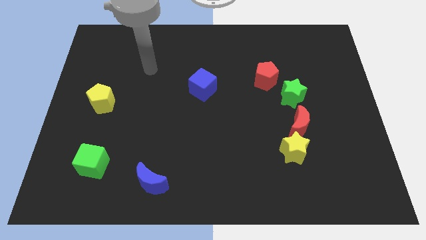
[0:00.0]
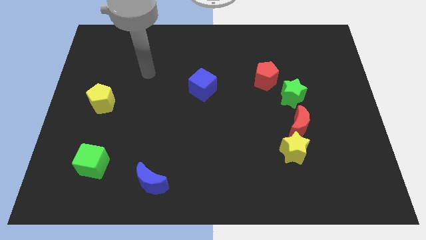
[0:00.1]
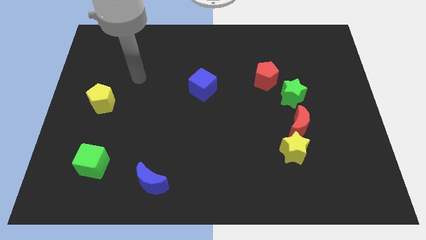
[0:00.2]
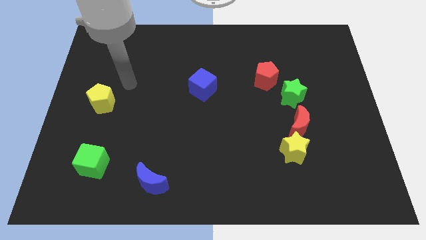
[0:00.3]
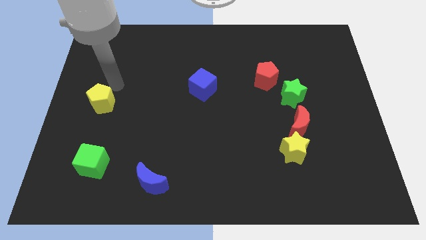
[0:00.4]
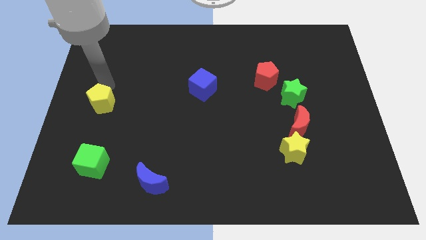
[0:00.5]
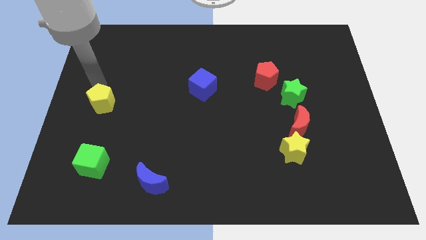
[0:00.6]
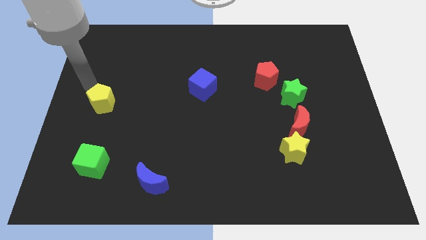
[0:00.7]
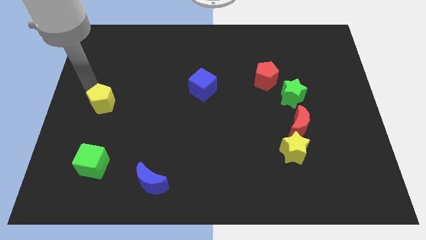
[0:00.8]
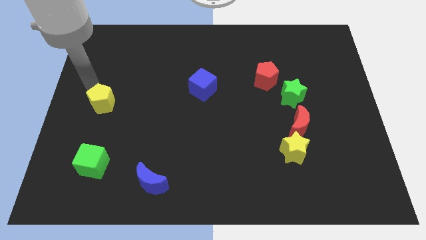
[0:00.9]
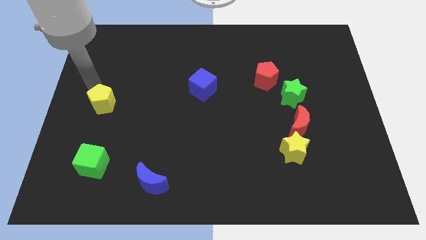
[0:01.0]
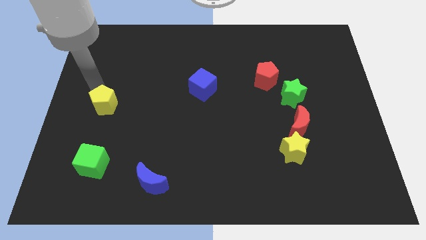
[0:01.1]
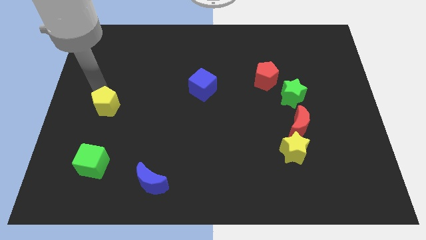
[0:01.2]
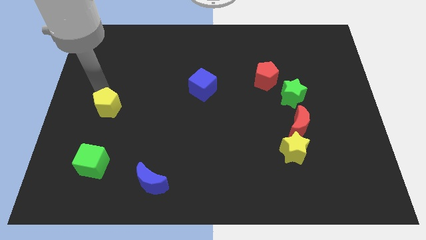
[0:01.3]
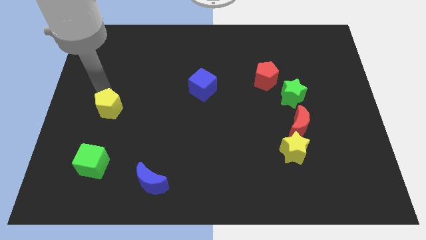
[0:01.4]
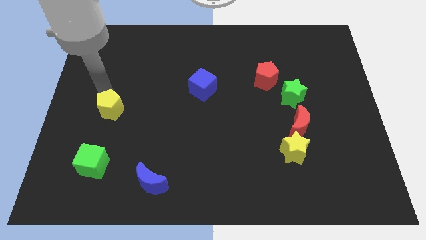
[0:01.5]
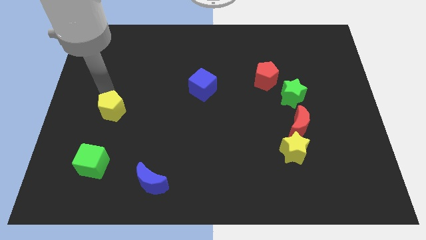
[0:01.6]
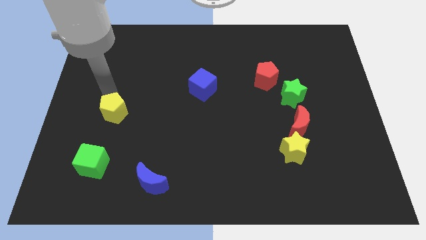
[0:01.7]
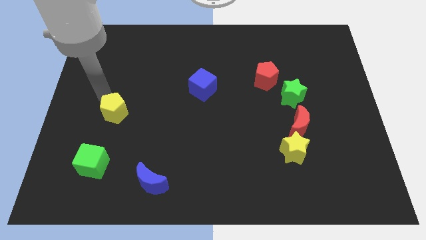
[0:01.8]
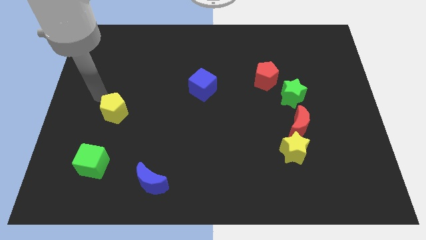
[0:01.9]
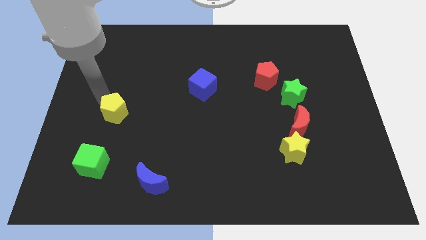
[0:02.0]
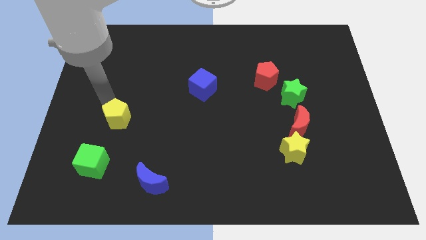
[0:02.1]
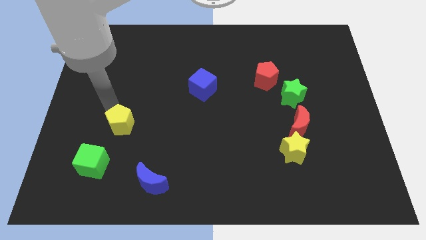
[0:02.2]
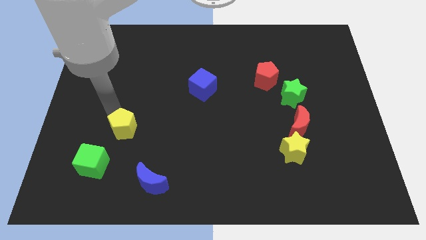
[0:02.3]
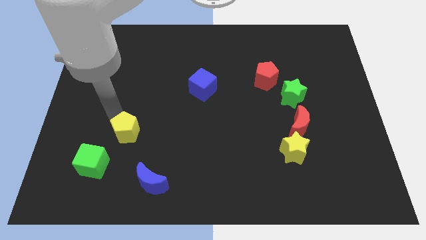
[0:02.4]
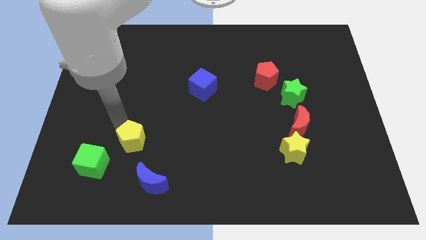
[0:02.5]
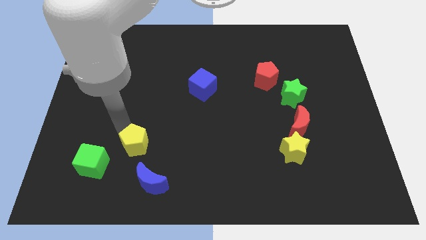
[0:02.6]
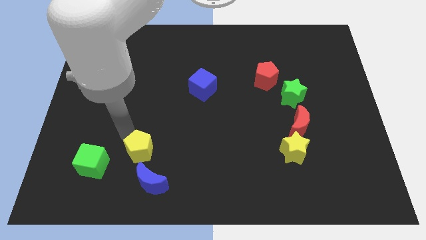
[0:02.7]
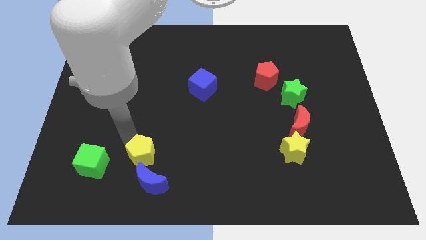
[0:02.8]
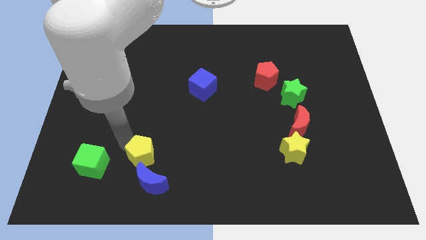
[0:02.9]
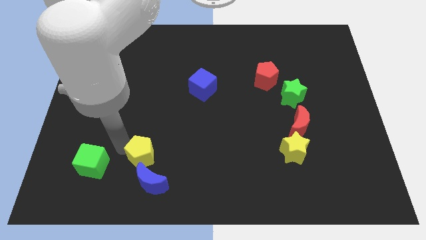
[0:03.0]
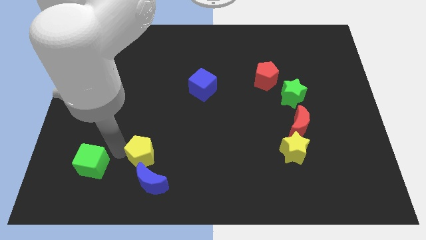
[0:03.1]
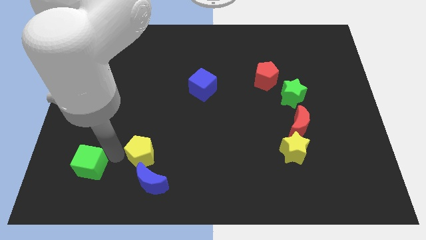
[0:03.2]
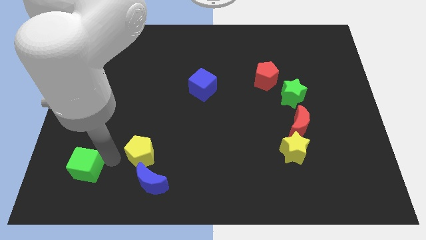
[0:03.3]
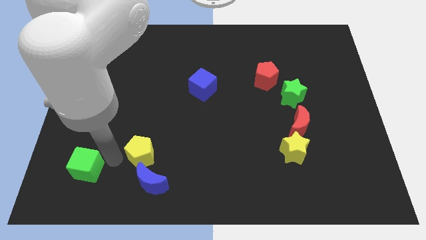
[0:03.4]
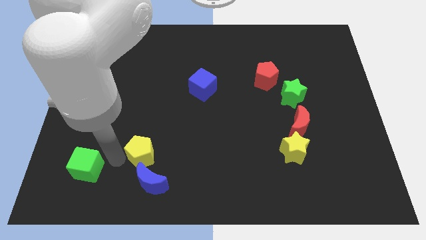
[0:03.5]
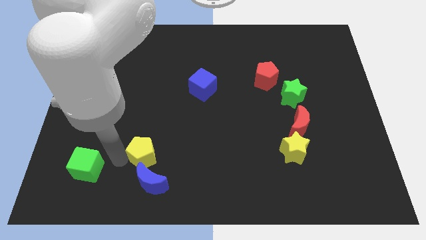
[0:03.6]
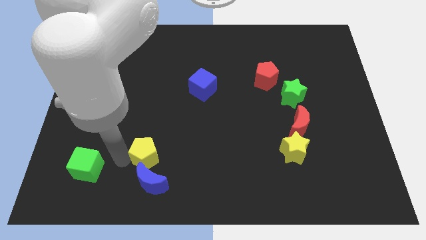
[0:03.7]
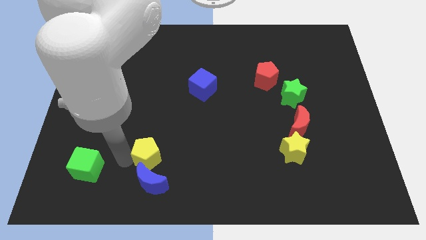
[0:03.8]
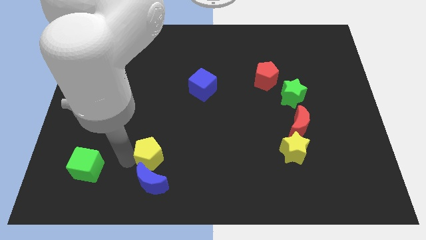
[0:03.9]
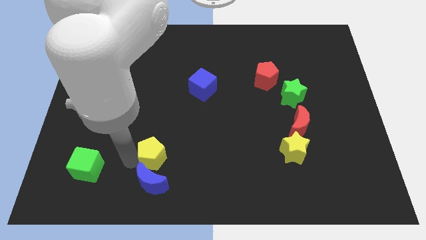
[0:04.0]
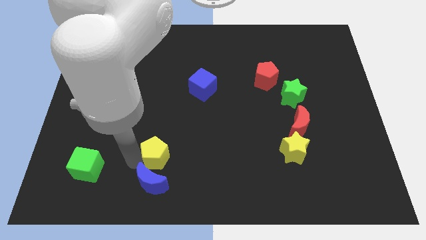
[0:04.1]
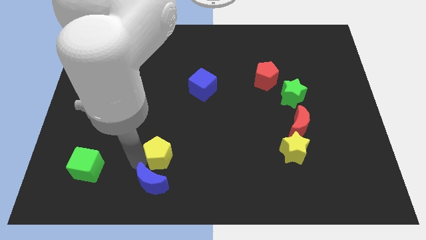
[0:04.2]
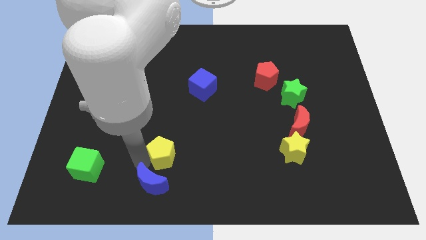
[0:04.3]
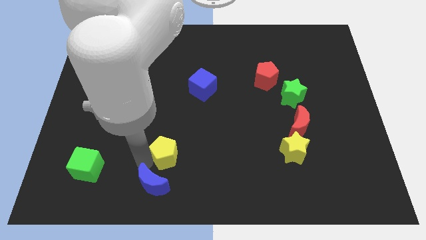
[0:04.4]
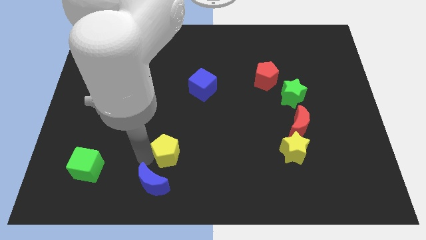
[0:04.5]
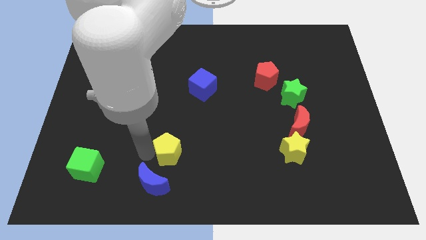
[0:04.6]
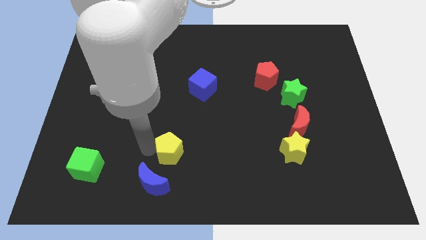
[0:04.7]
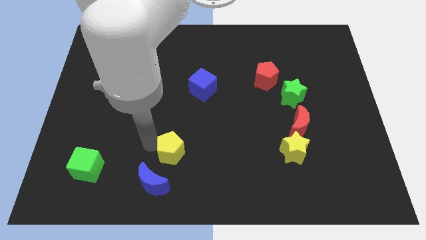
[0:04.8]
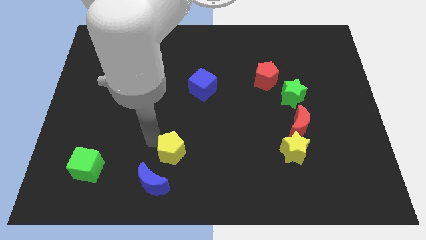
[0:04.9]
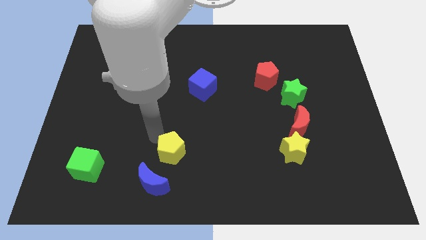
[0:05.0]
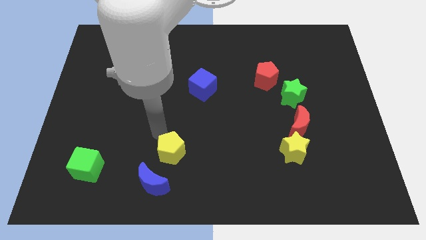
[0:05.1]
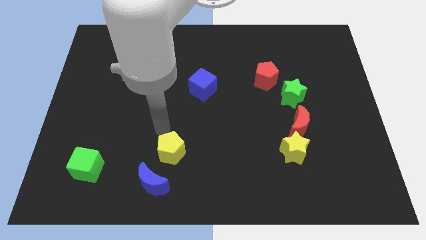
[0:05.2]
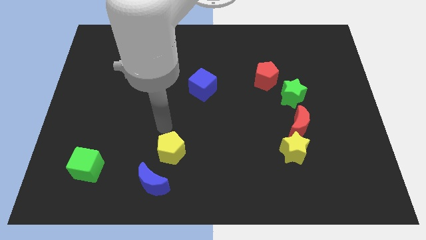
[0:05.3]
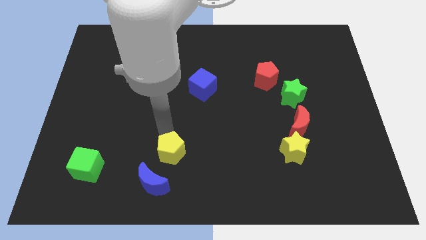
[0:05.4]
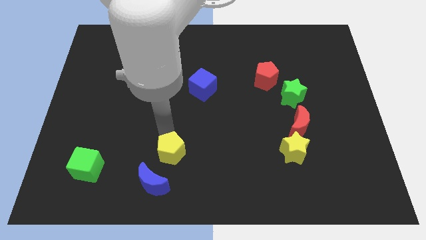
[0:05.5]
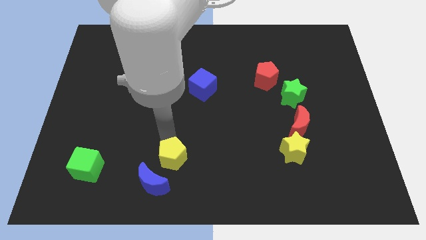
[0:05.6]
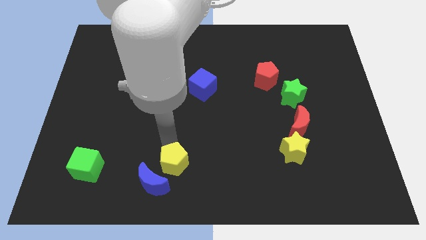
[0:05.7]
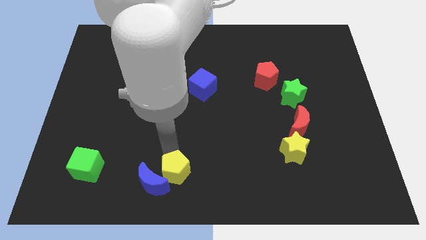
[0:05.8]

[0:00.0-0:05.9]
put the yellow pentagon to the bottom side

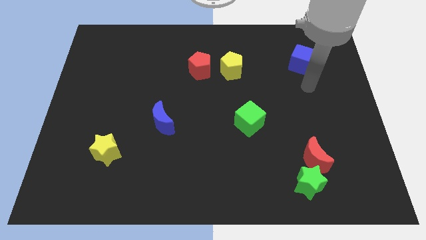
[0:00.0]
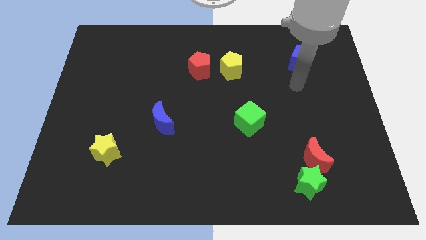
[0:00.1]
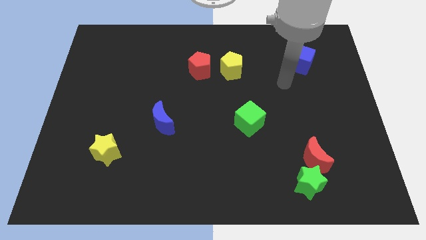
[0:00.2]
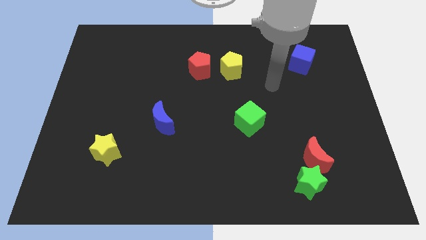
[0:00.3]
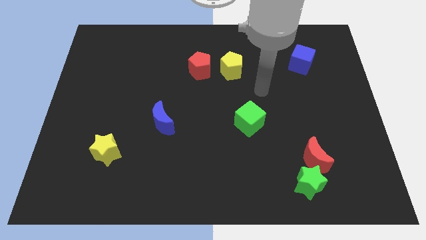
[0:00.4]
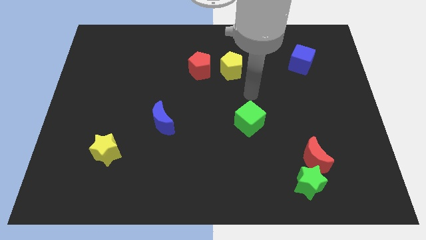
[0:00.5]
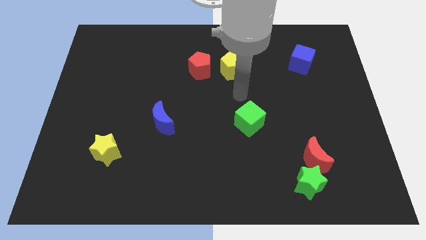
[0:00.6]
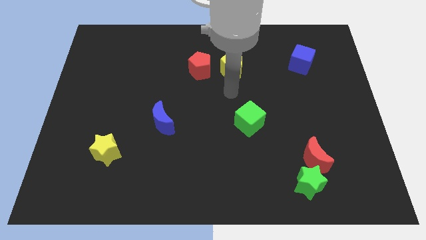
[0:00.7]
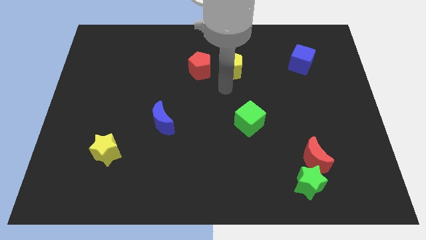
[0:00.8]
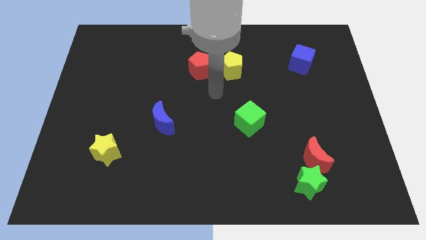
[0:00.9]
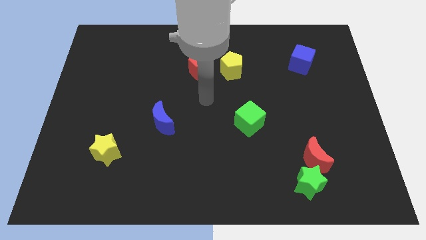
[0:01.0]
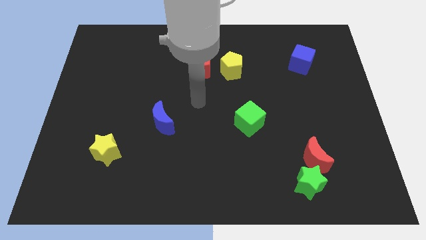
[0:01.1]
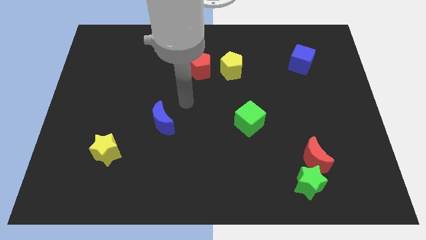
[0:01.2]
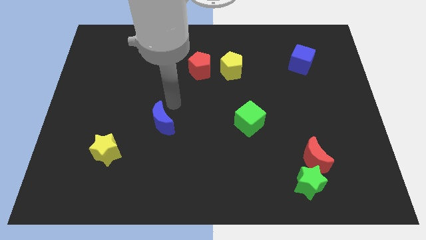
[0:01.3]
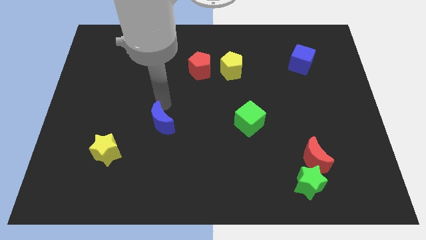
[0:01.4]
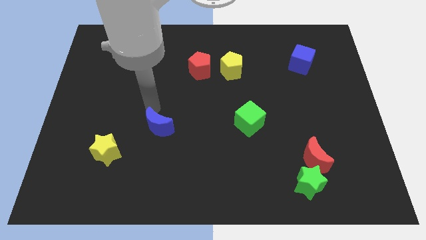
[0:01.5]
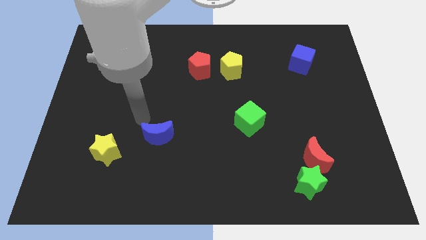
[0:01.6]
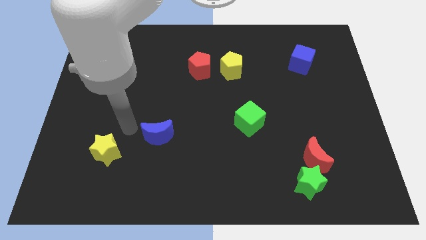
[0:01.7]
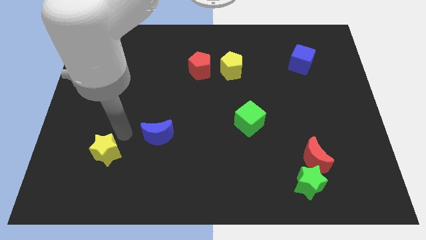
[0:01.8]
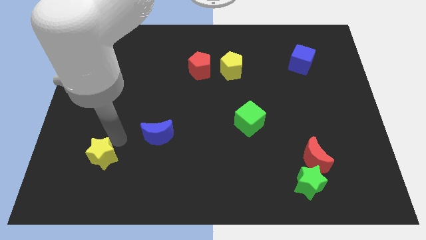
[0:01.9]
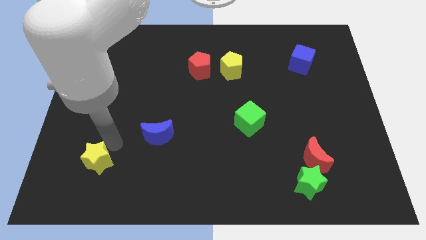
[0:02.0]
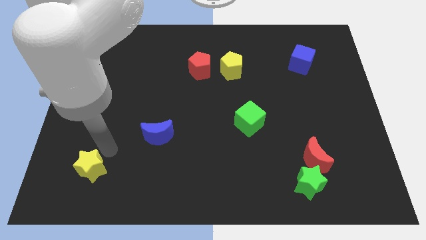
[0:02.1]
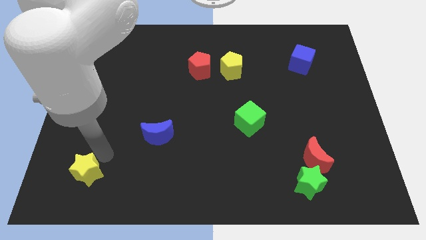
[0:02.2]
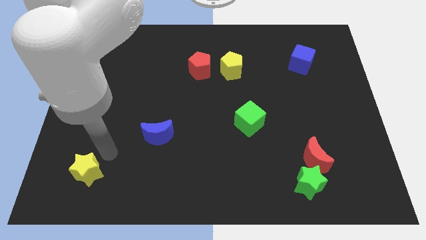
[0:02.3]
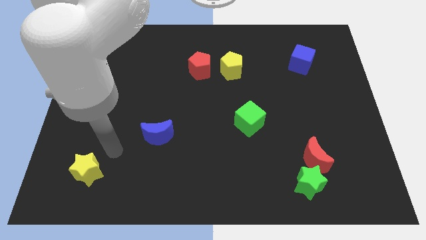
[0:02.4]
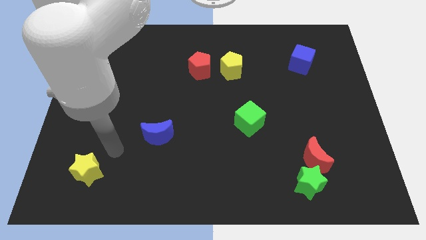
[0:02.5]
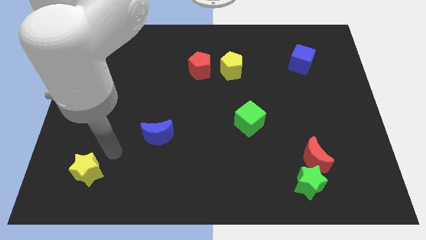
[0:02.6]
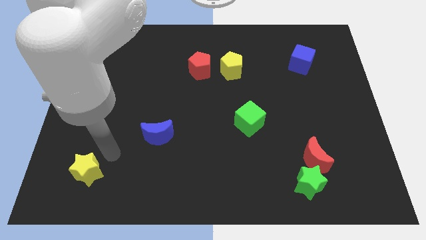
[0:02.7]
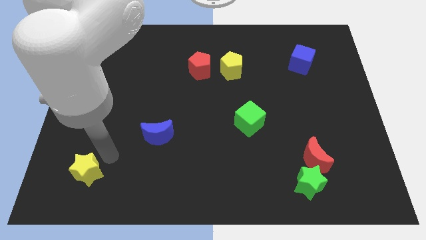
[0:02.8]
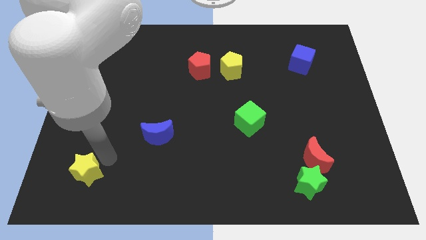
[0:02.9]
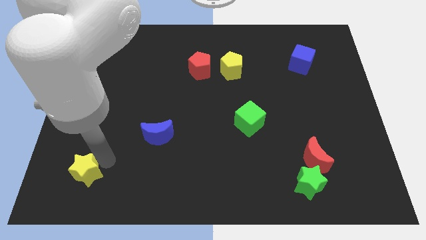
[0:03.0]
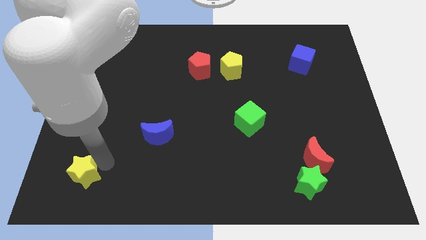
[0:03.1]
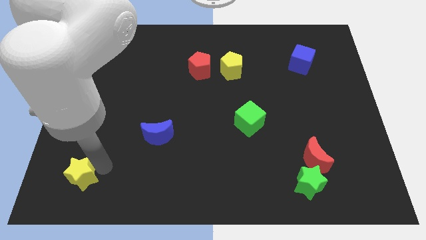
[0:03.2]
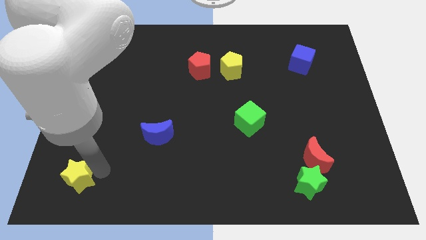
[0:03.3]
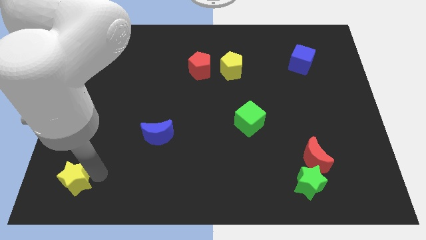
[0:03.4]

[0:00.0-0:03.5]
slide the yellow star to the bottom left of the board
